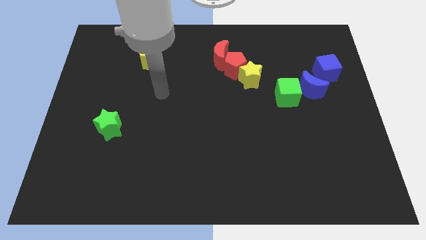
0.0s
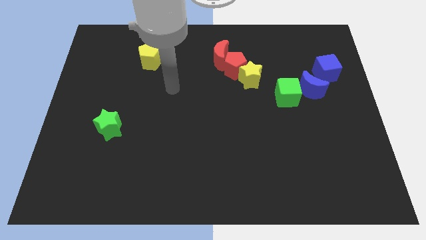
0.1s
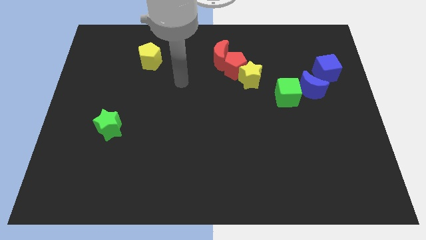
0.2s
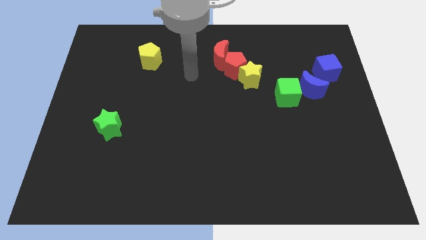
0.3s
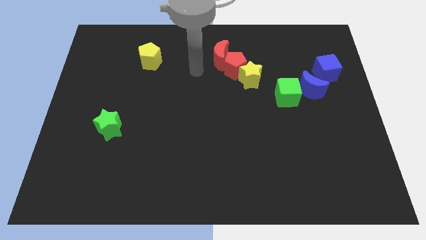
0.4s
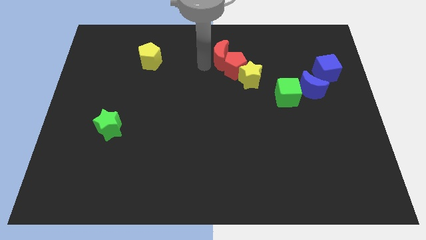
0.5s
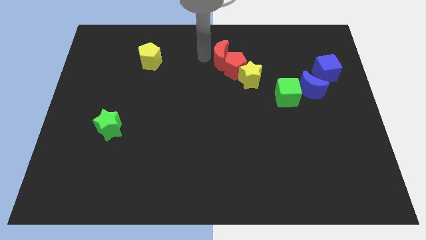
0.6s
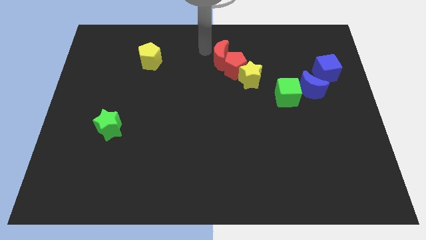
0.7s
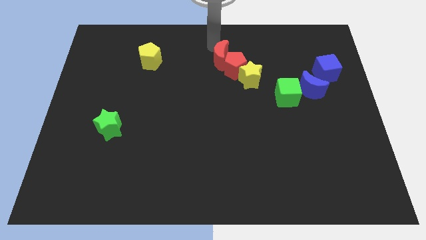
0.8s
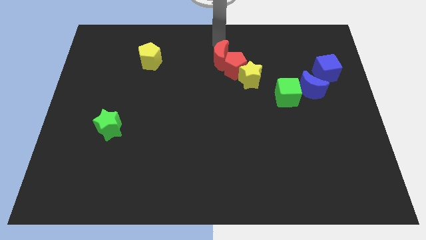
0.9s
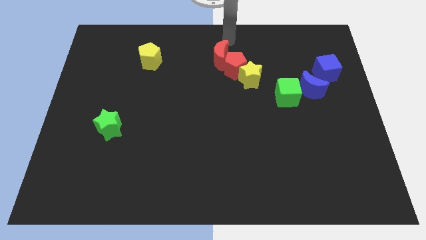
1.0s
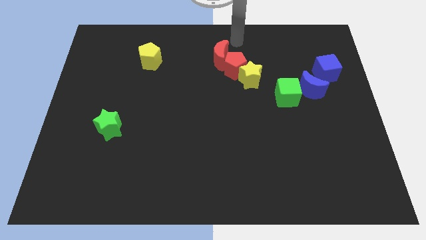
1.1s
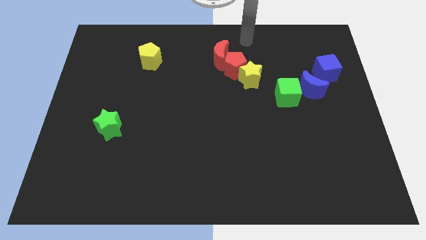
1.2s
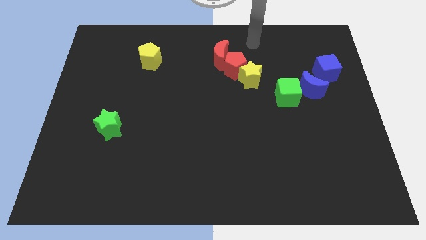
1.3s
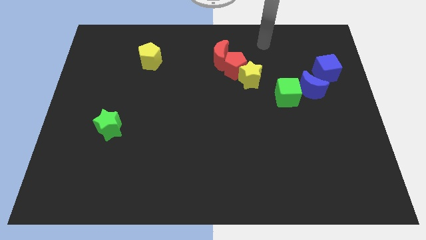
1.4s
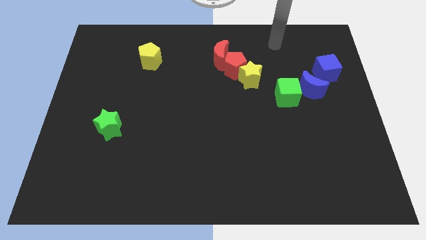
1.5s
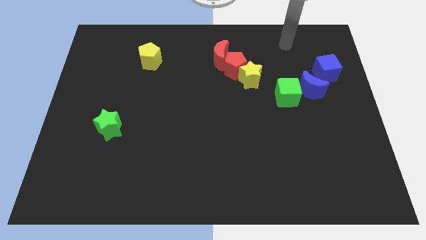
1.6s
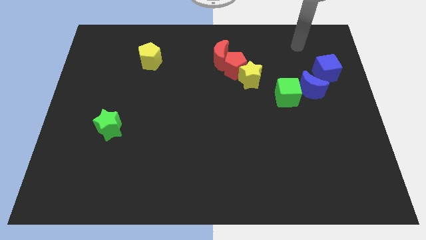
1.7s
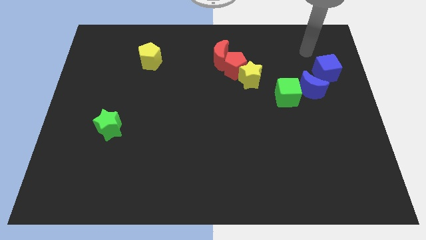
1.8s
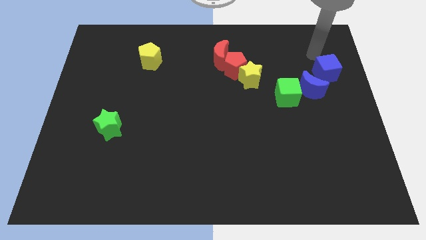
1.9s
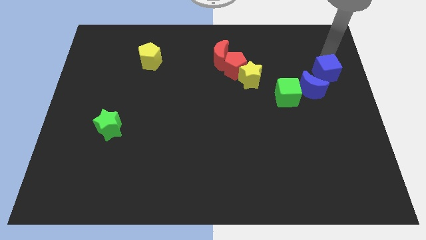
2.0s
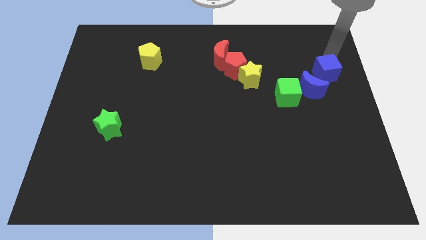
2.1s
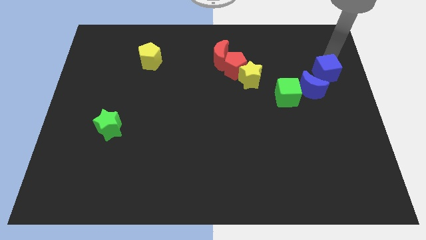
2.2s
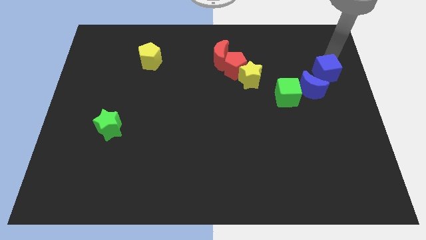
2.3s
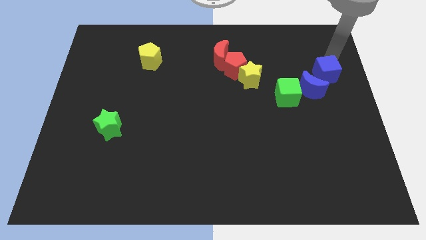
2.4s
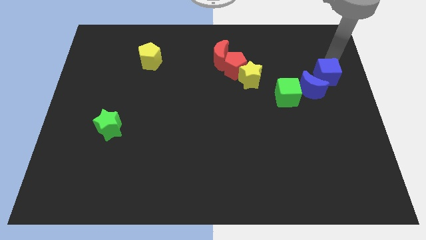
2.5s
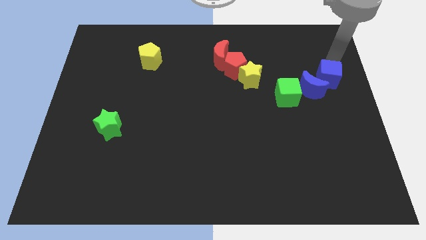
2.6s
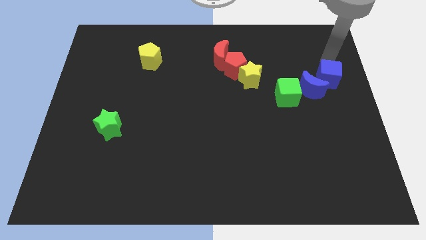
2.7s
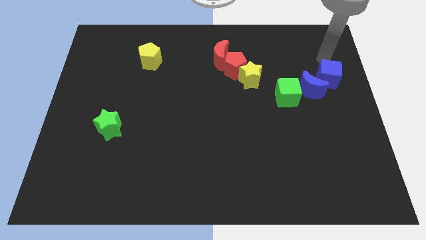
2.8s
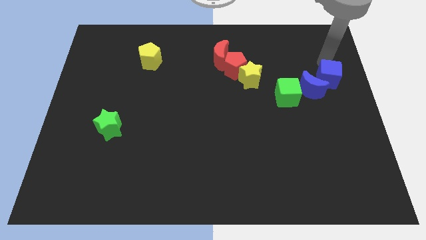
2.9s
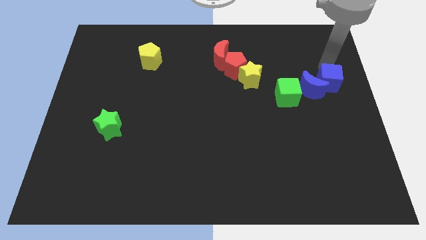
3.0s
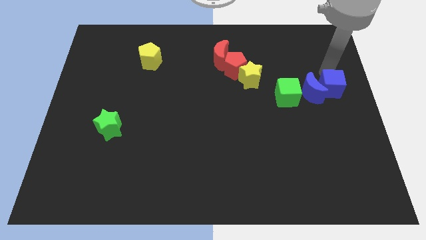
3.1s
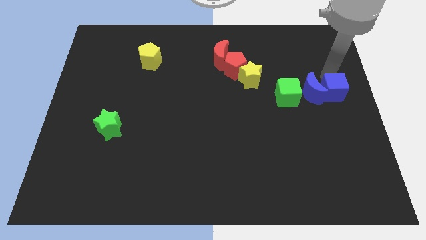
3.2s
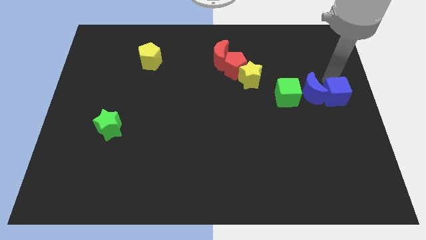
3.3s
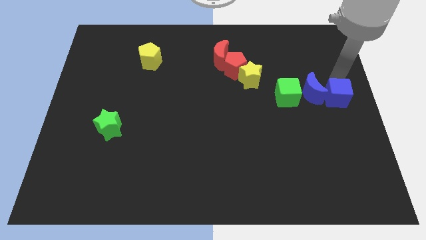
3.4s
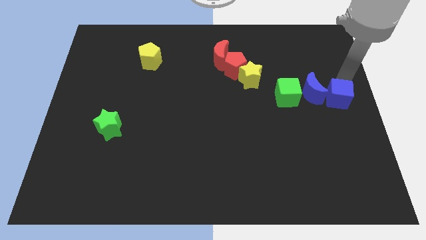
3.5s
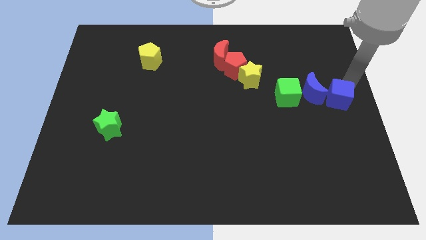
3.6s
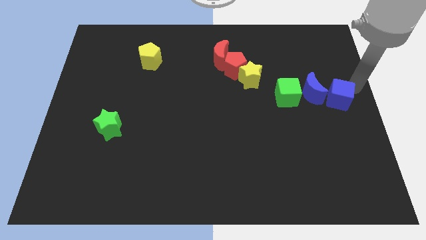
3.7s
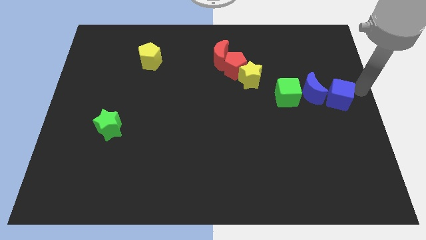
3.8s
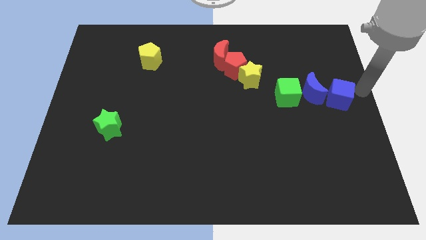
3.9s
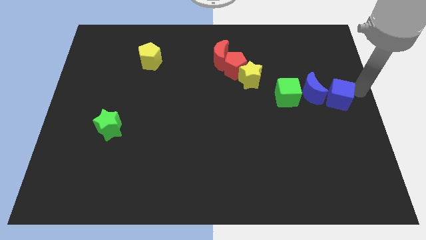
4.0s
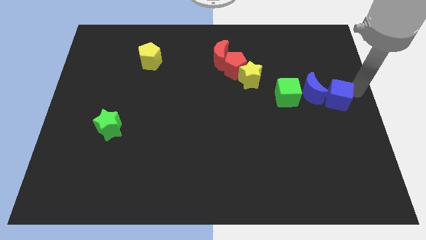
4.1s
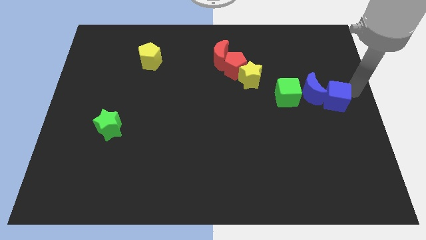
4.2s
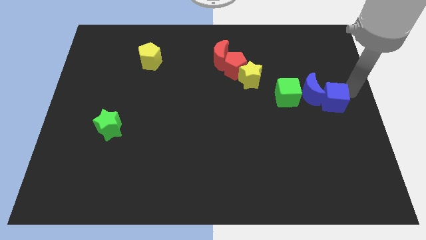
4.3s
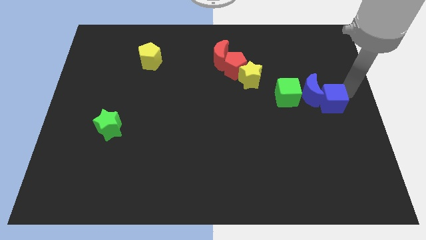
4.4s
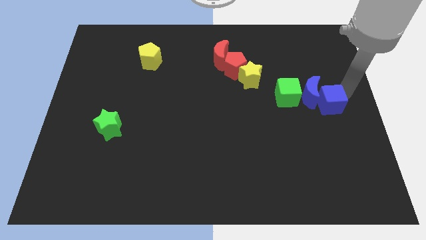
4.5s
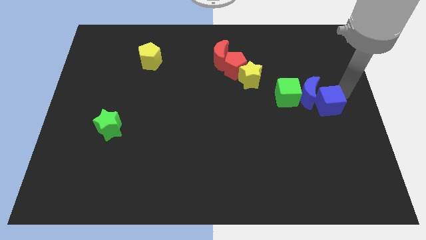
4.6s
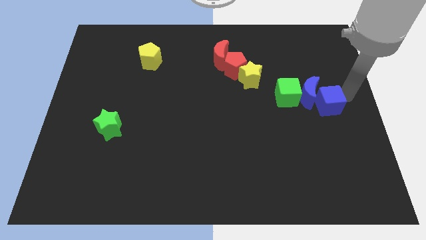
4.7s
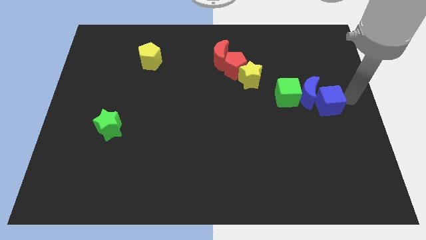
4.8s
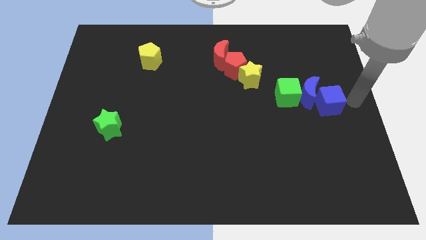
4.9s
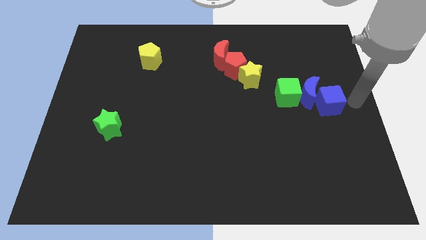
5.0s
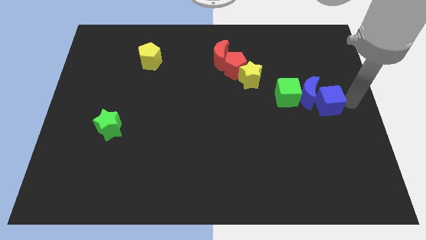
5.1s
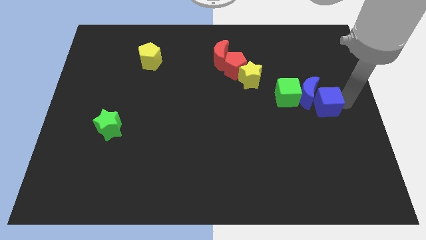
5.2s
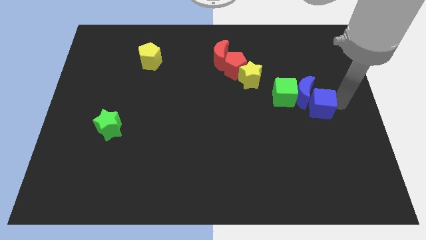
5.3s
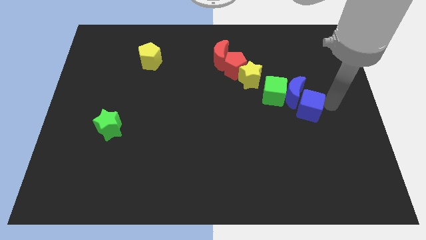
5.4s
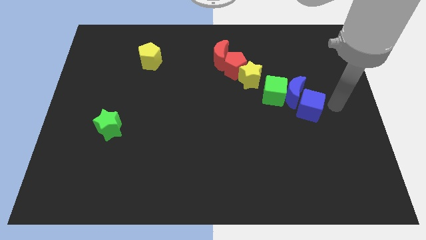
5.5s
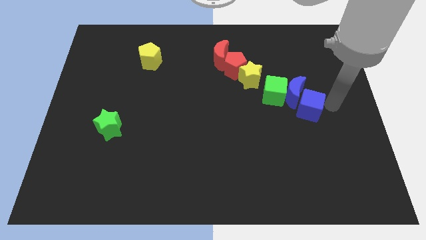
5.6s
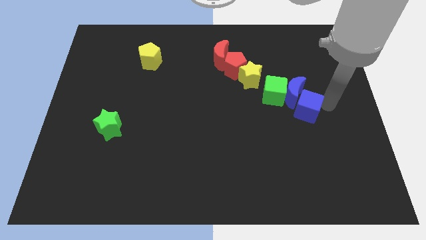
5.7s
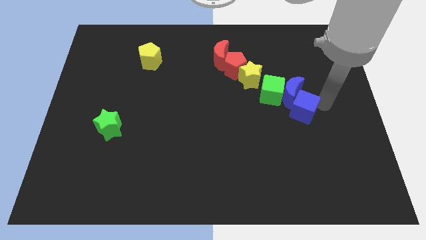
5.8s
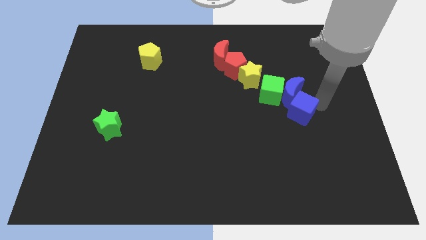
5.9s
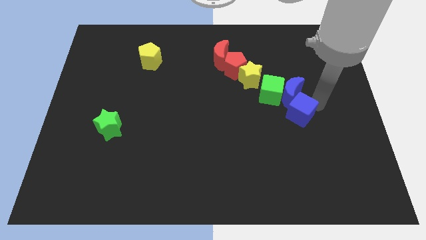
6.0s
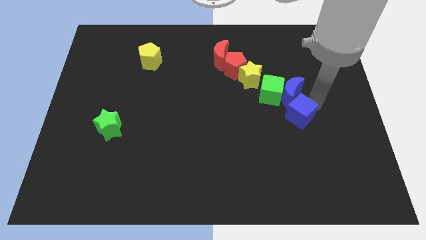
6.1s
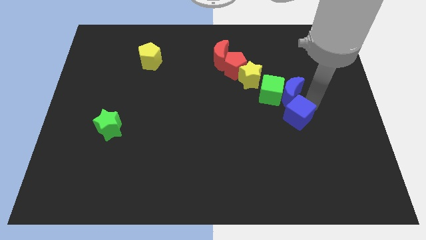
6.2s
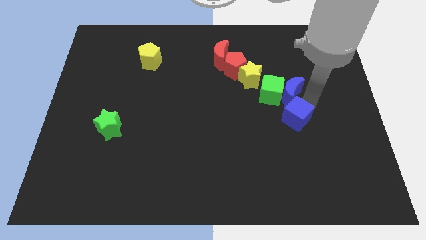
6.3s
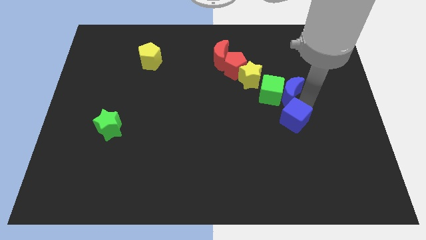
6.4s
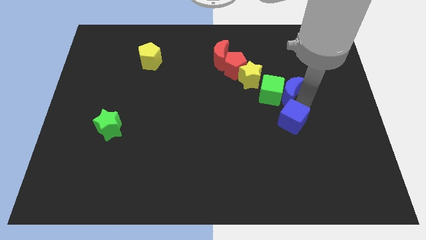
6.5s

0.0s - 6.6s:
put the blue cube diagonally down and to the left of the blue moon
